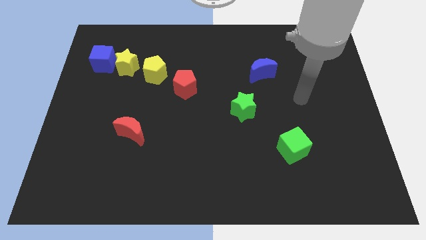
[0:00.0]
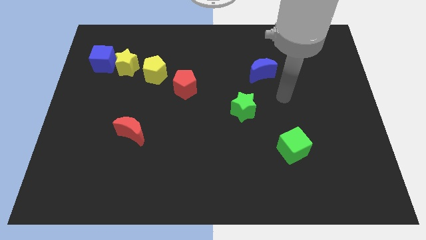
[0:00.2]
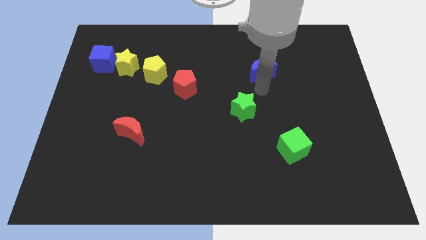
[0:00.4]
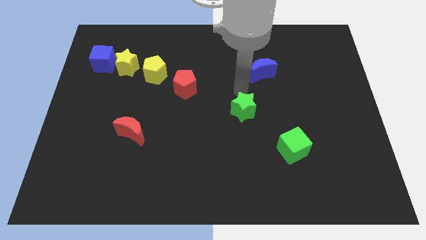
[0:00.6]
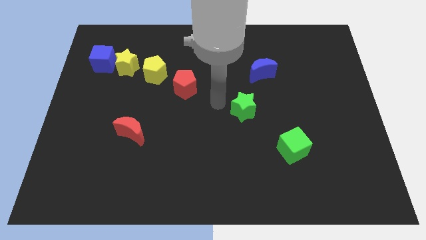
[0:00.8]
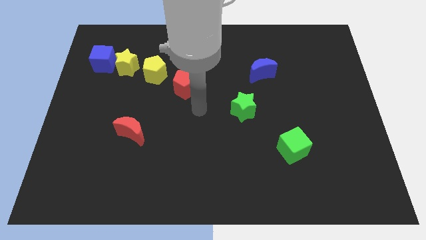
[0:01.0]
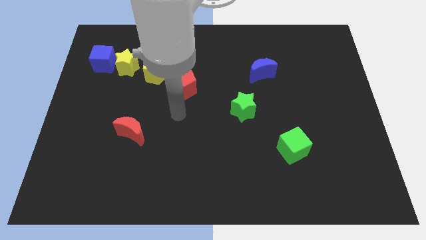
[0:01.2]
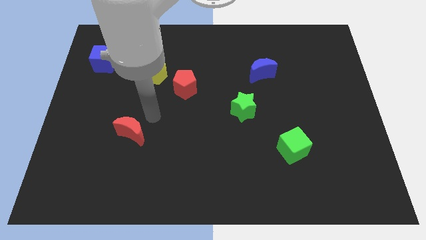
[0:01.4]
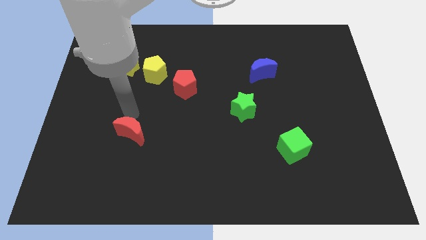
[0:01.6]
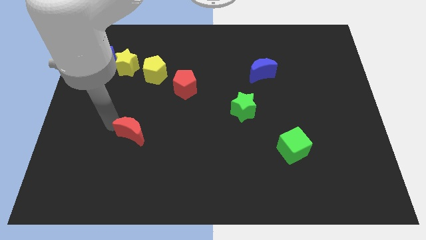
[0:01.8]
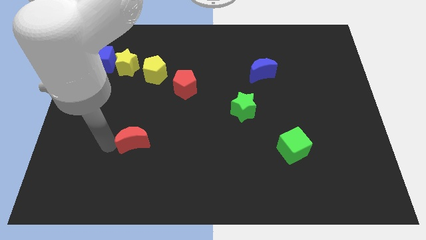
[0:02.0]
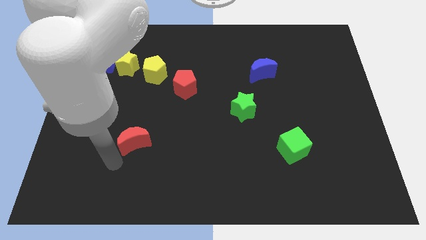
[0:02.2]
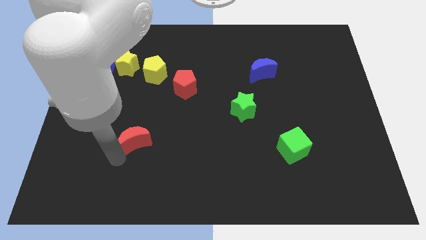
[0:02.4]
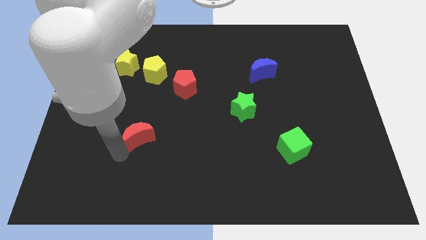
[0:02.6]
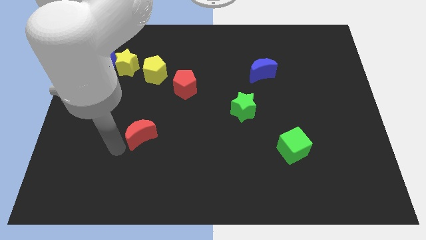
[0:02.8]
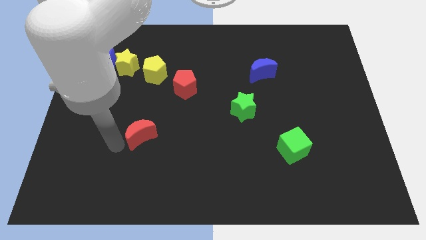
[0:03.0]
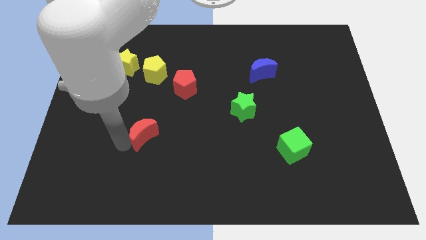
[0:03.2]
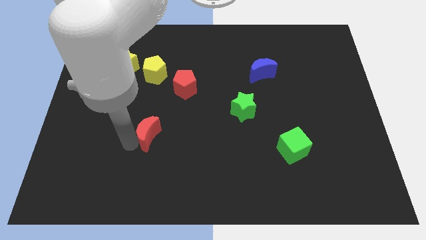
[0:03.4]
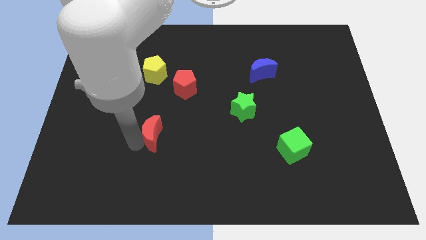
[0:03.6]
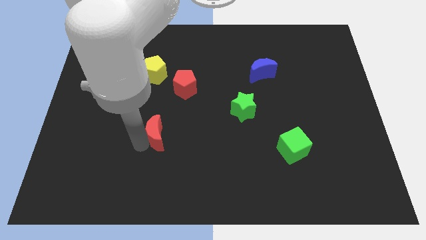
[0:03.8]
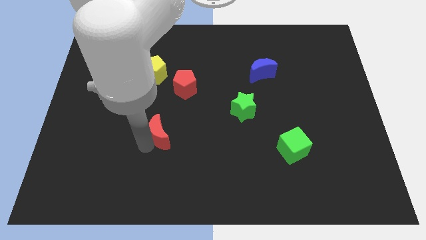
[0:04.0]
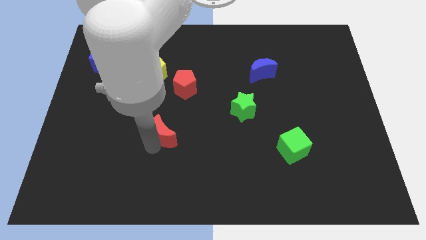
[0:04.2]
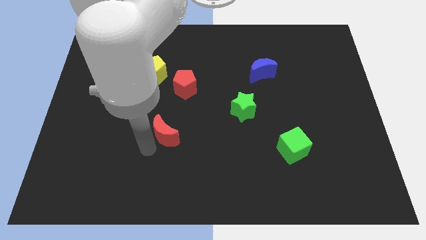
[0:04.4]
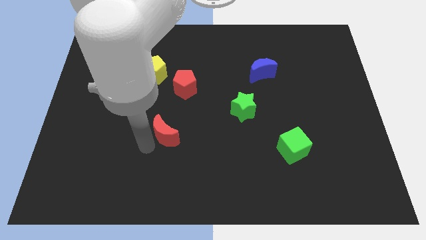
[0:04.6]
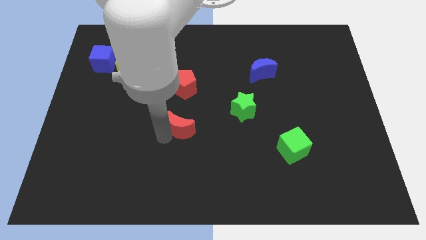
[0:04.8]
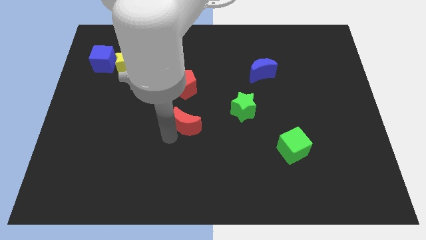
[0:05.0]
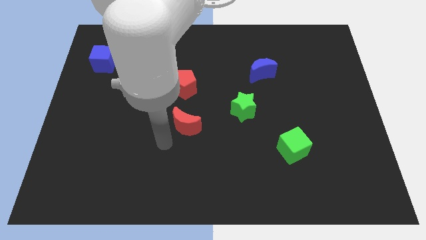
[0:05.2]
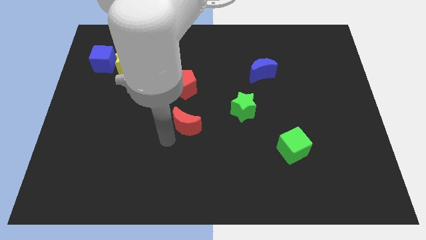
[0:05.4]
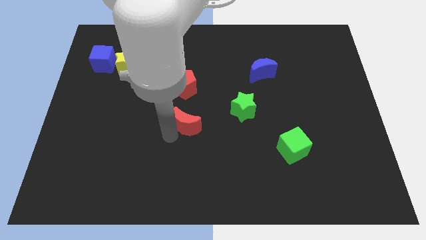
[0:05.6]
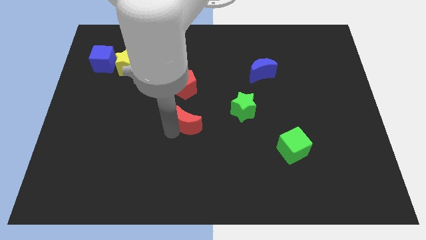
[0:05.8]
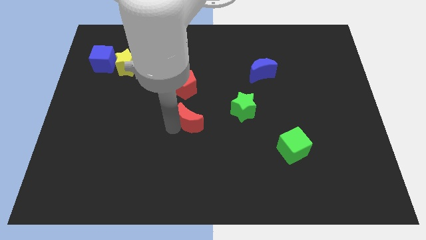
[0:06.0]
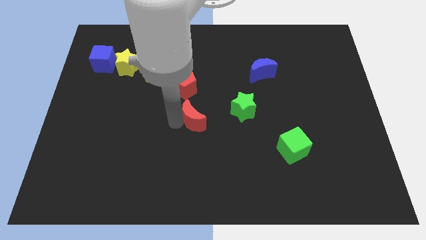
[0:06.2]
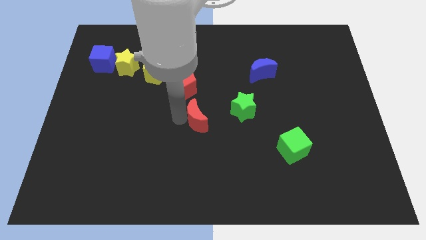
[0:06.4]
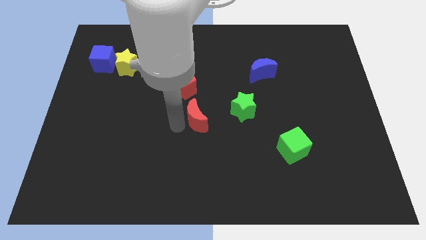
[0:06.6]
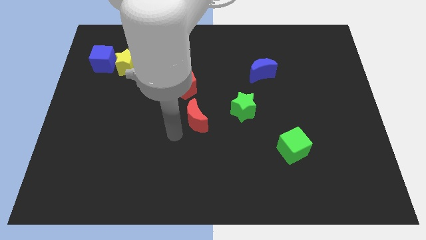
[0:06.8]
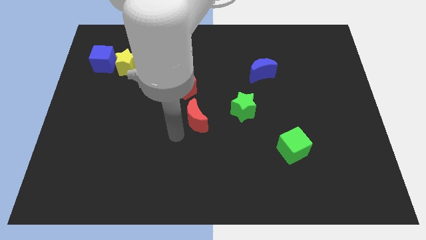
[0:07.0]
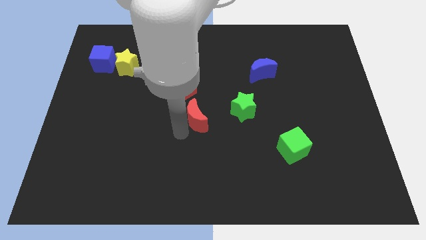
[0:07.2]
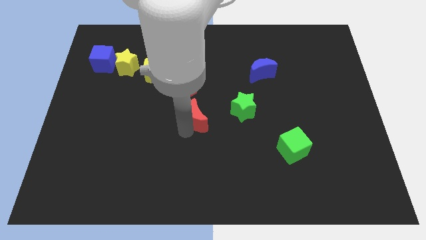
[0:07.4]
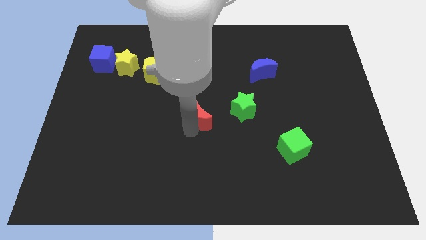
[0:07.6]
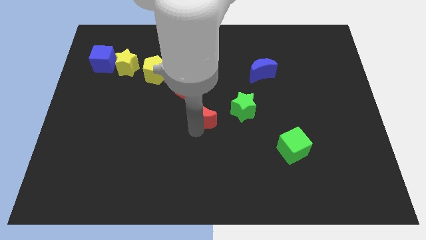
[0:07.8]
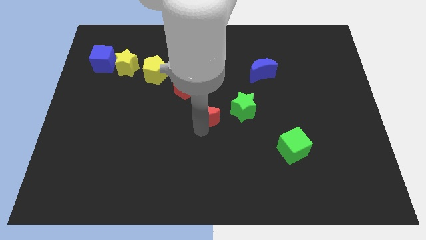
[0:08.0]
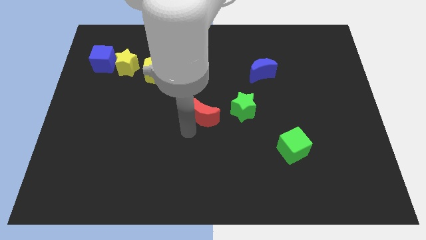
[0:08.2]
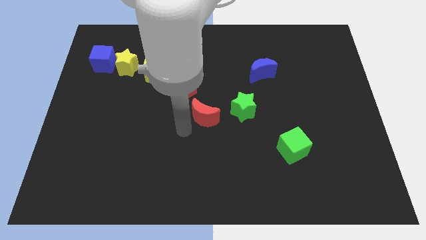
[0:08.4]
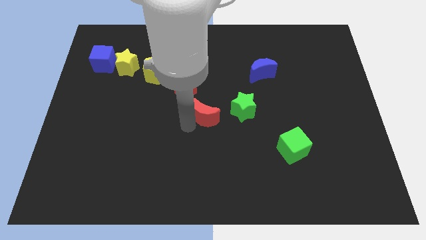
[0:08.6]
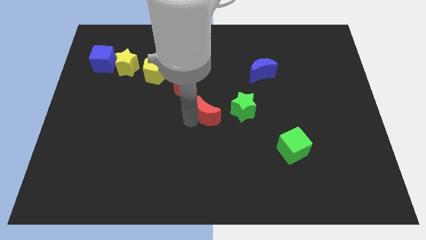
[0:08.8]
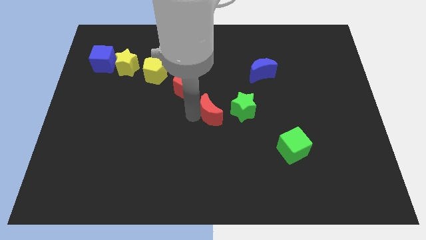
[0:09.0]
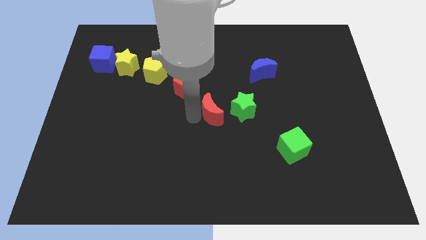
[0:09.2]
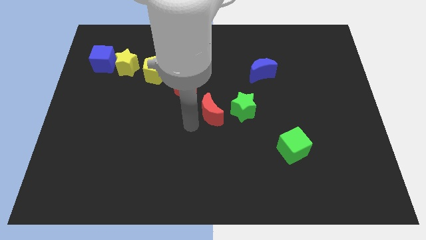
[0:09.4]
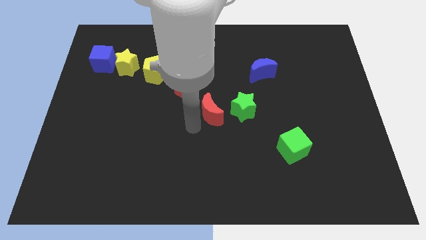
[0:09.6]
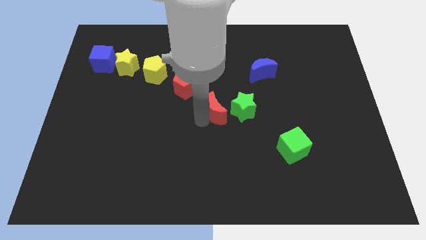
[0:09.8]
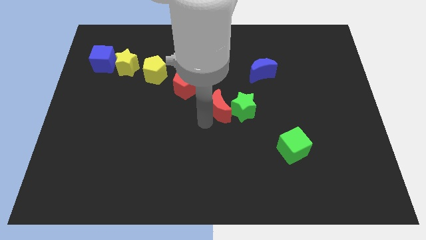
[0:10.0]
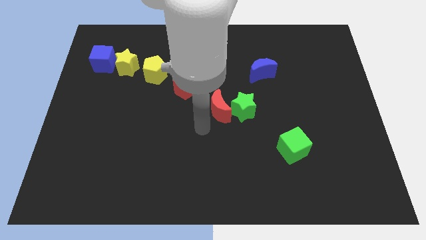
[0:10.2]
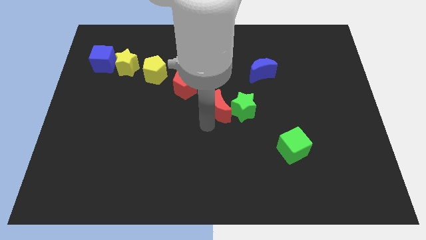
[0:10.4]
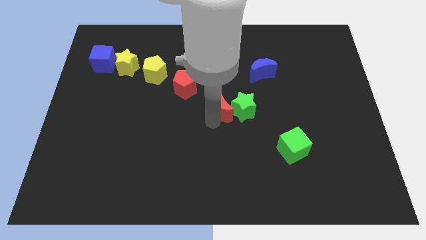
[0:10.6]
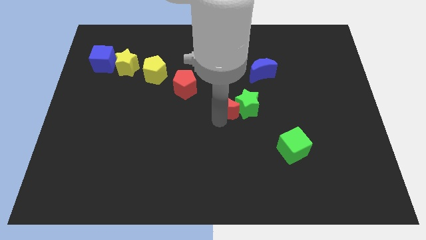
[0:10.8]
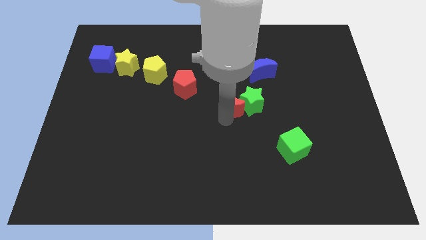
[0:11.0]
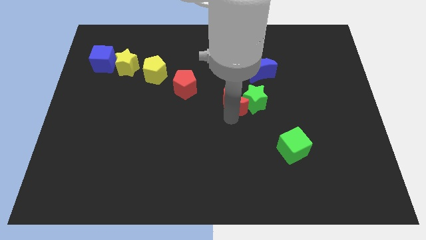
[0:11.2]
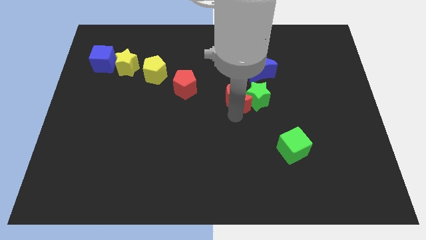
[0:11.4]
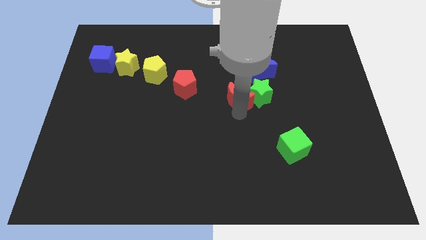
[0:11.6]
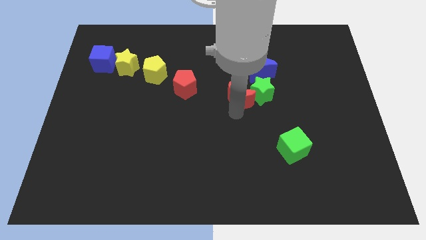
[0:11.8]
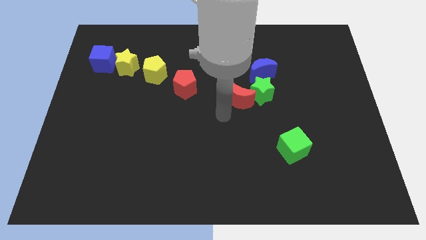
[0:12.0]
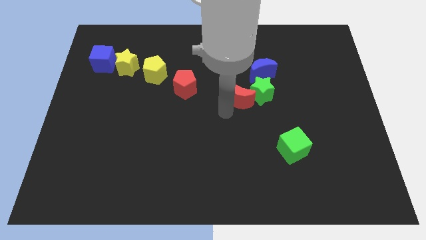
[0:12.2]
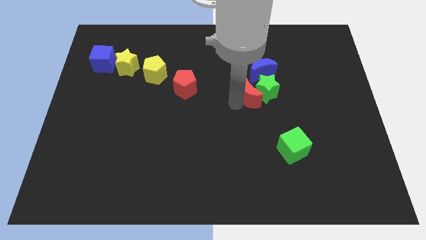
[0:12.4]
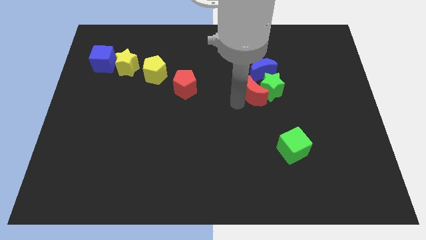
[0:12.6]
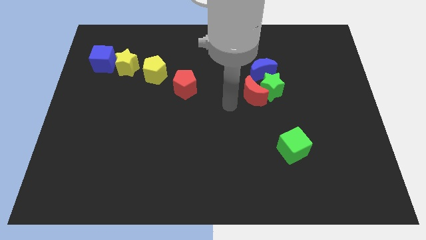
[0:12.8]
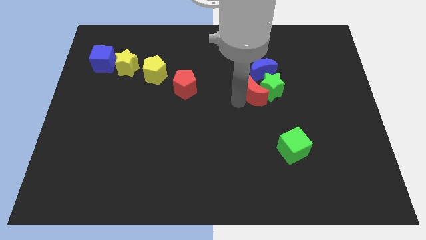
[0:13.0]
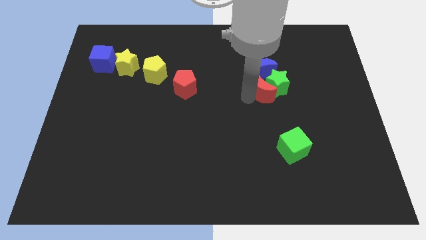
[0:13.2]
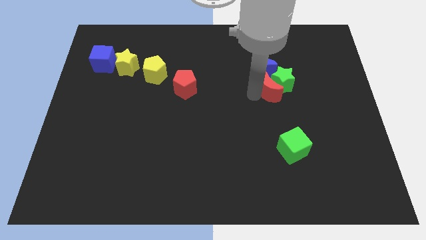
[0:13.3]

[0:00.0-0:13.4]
move the red moon to the bottom right of the blue moon

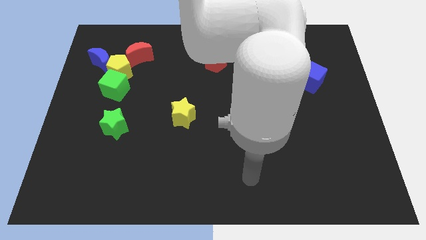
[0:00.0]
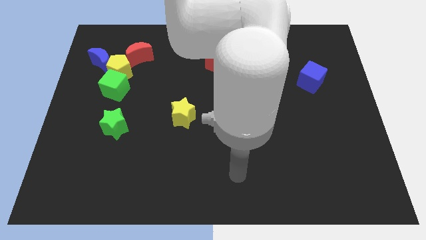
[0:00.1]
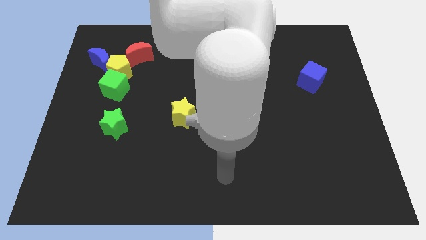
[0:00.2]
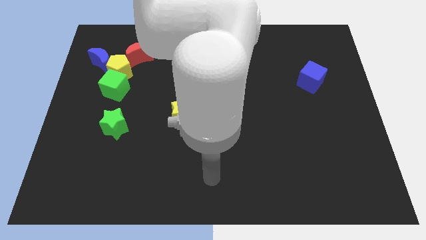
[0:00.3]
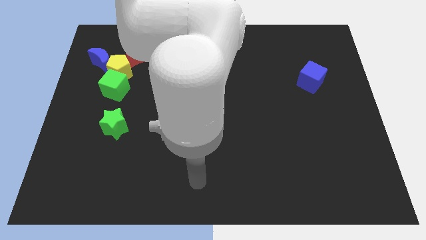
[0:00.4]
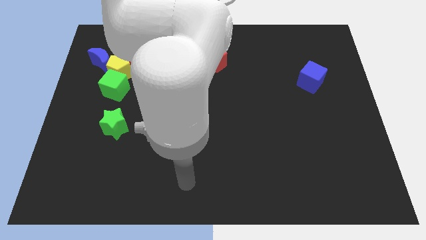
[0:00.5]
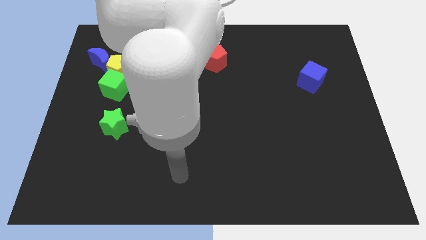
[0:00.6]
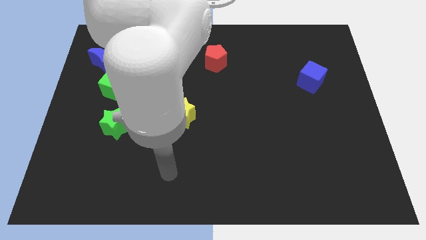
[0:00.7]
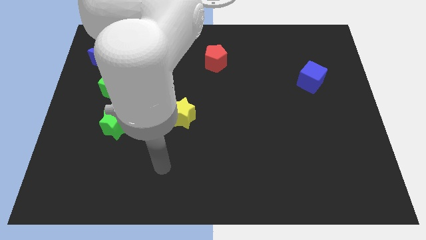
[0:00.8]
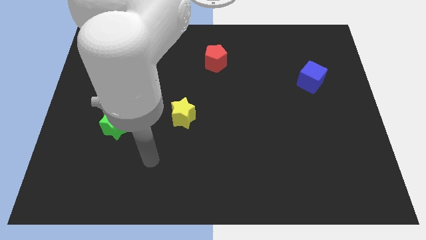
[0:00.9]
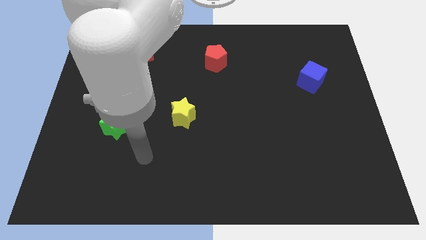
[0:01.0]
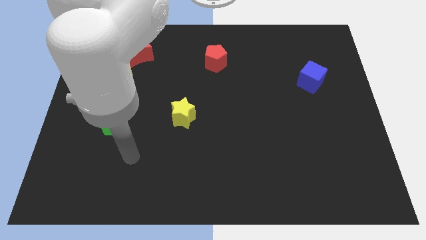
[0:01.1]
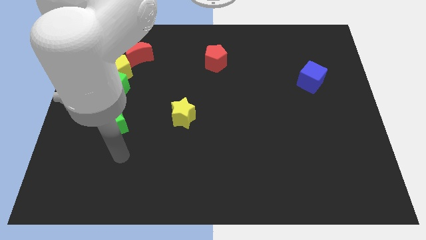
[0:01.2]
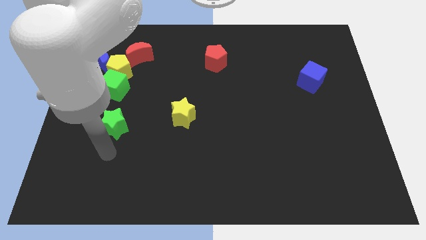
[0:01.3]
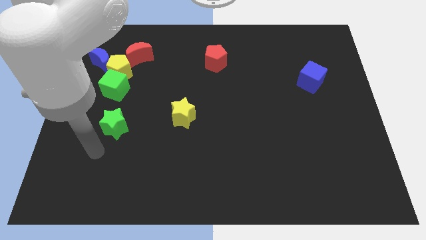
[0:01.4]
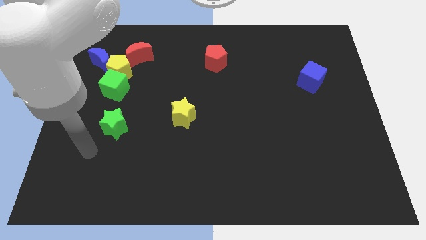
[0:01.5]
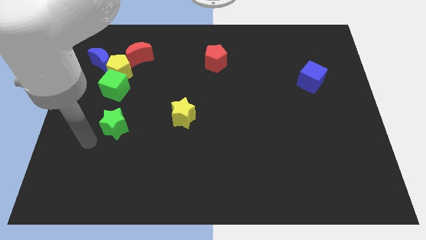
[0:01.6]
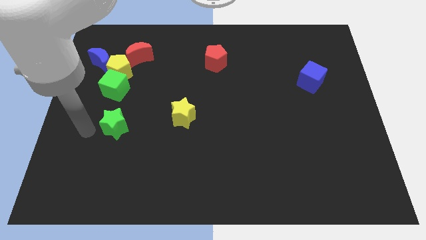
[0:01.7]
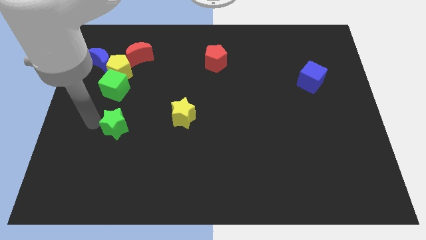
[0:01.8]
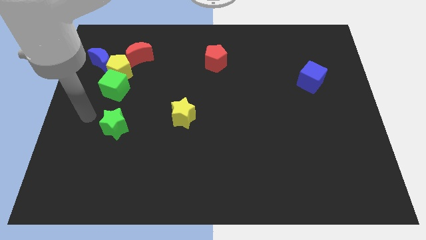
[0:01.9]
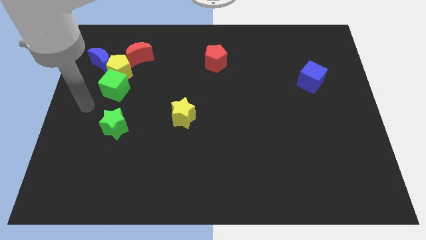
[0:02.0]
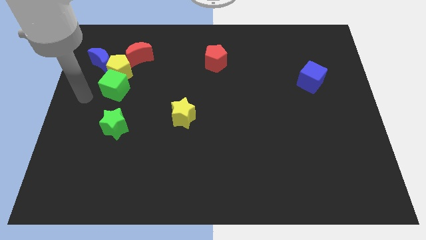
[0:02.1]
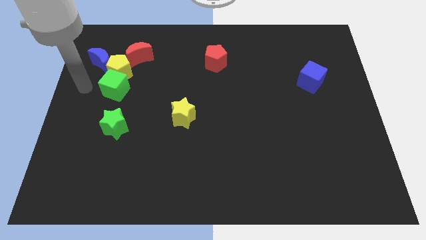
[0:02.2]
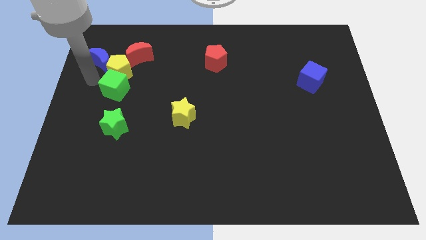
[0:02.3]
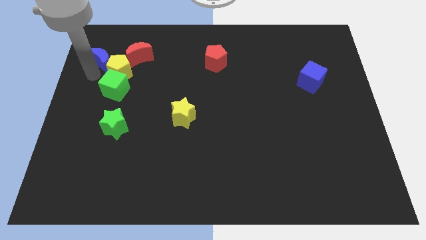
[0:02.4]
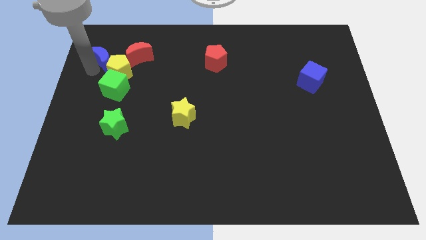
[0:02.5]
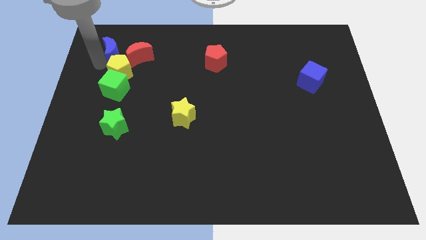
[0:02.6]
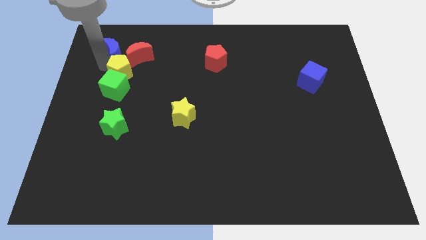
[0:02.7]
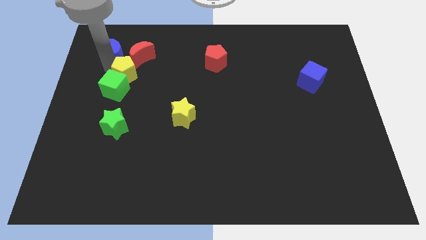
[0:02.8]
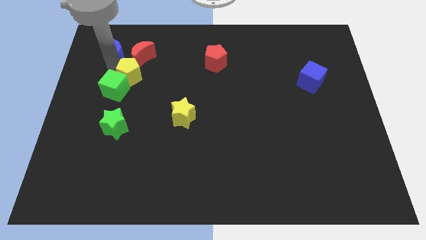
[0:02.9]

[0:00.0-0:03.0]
move the yellow pentagon right of the green cube
